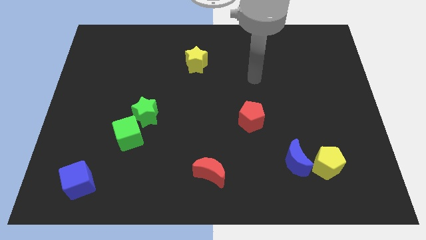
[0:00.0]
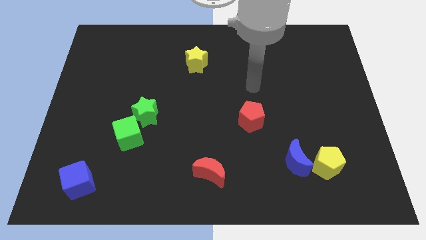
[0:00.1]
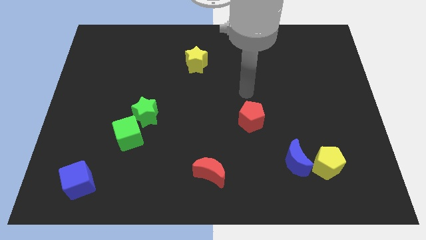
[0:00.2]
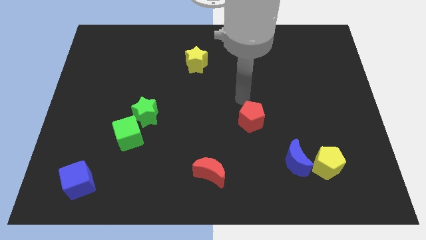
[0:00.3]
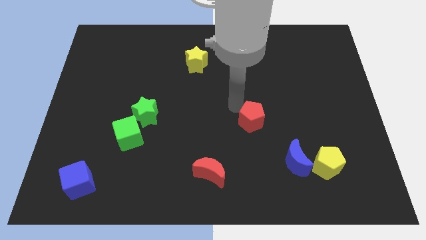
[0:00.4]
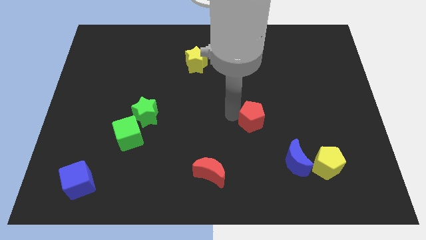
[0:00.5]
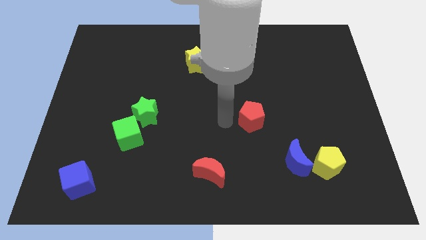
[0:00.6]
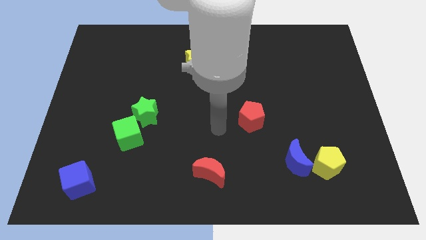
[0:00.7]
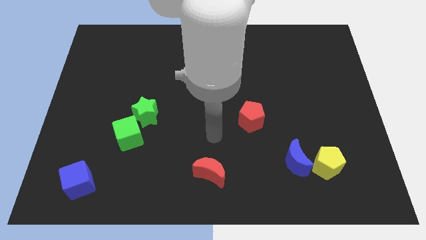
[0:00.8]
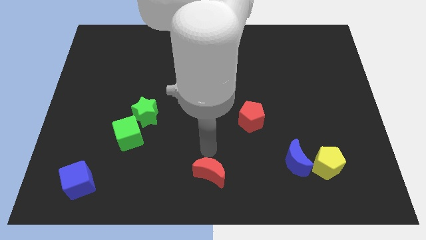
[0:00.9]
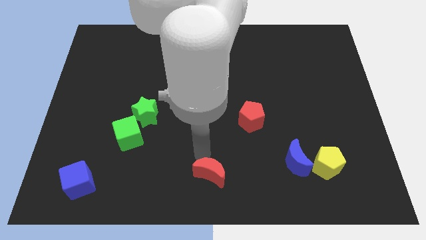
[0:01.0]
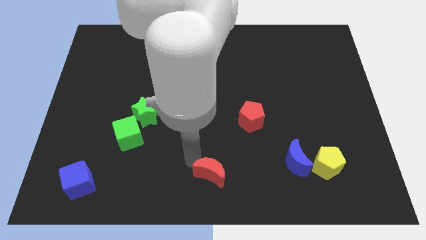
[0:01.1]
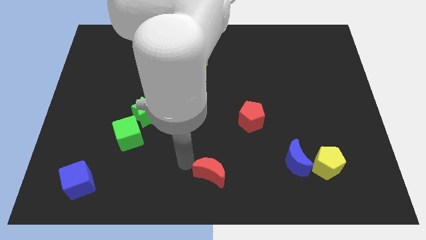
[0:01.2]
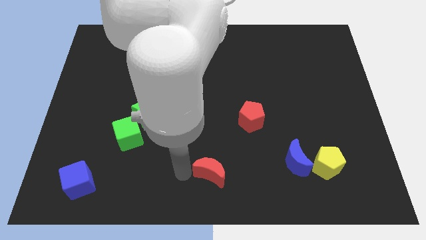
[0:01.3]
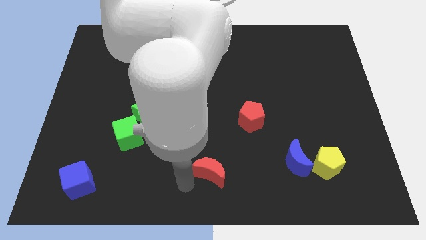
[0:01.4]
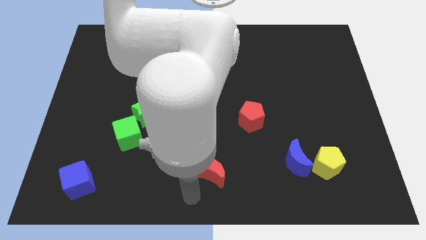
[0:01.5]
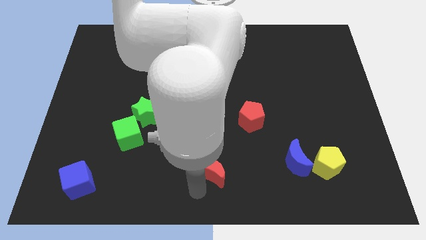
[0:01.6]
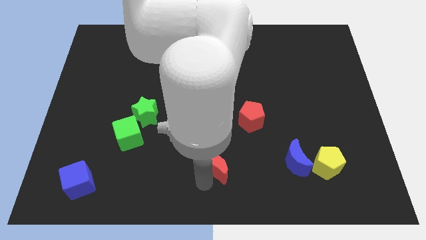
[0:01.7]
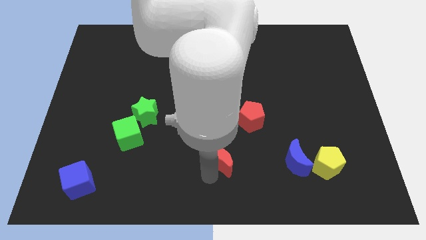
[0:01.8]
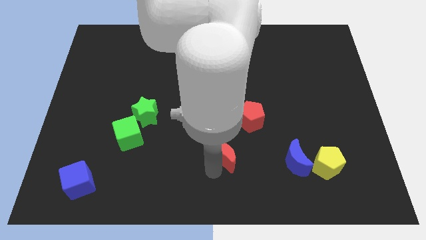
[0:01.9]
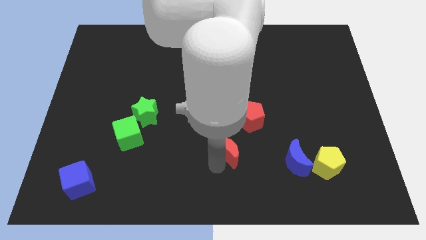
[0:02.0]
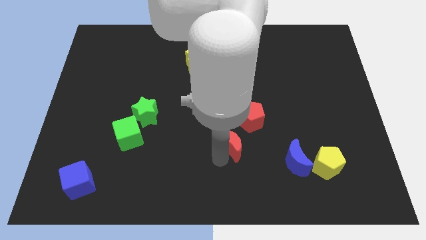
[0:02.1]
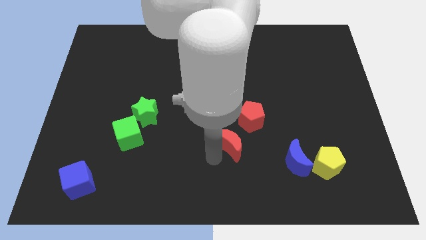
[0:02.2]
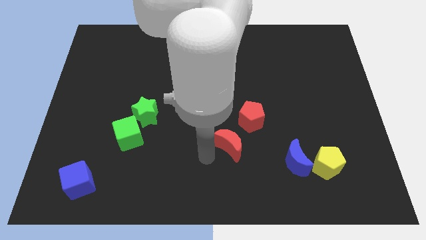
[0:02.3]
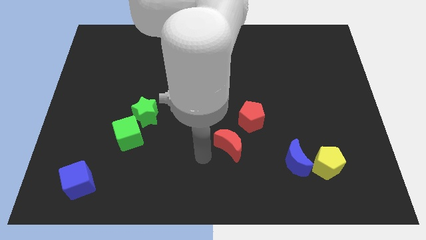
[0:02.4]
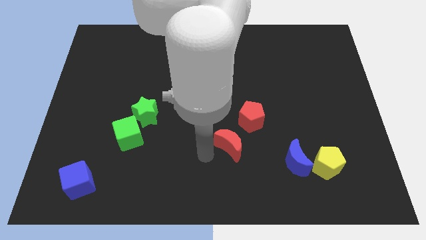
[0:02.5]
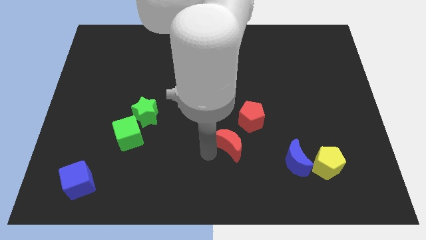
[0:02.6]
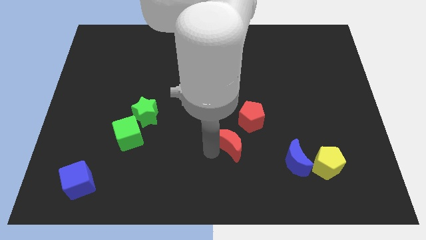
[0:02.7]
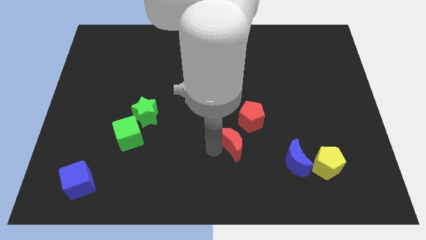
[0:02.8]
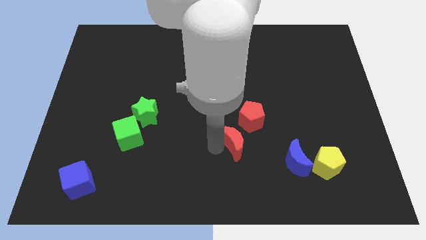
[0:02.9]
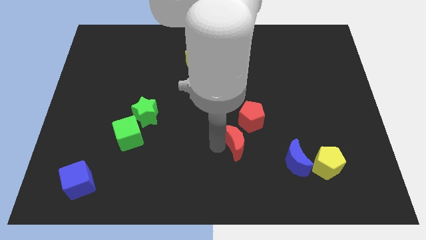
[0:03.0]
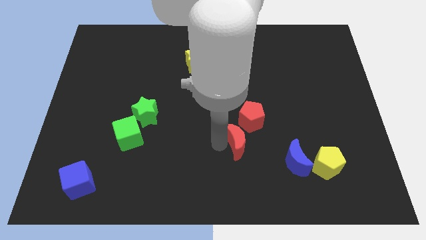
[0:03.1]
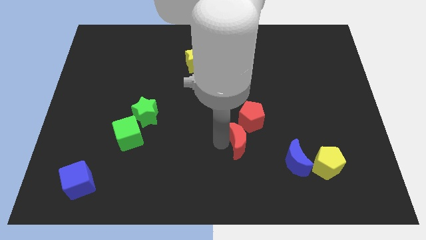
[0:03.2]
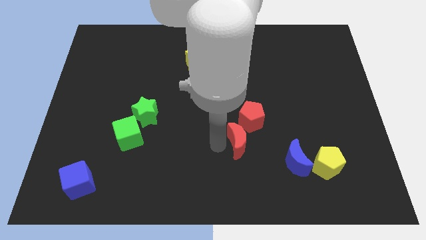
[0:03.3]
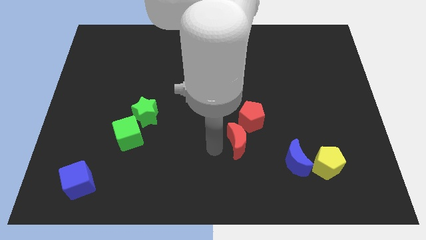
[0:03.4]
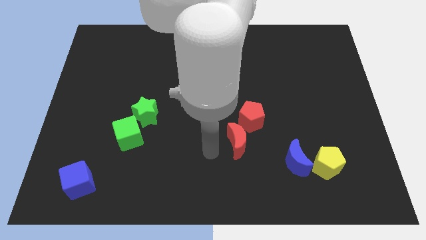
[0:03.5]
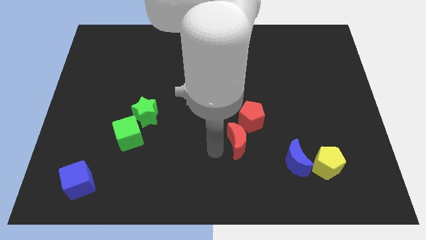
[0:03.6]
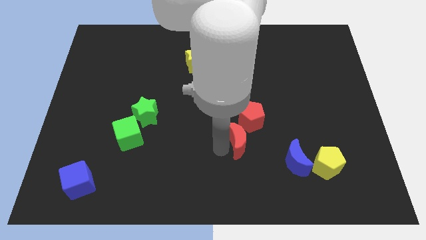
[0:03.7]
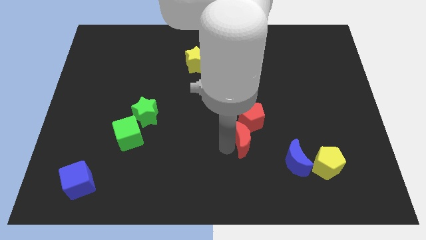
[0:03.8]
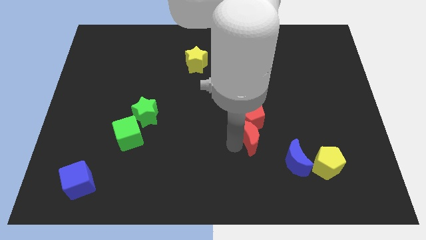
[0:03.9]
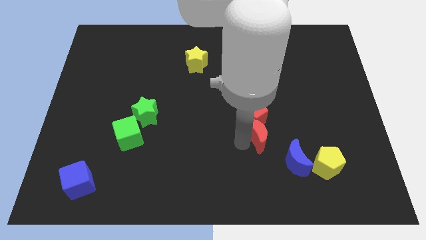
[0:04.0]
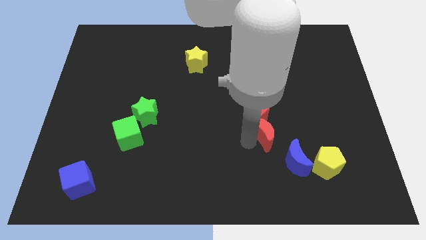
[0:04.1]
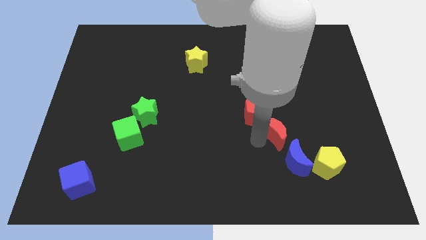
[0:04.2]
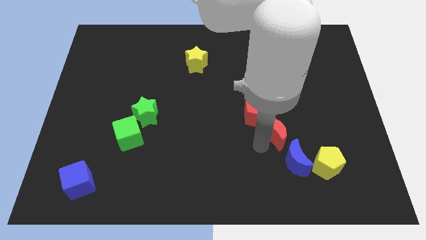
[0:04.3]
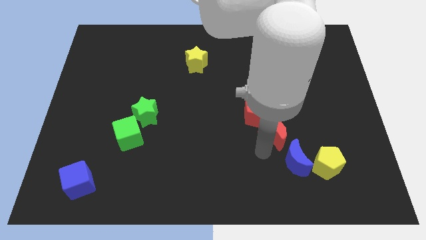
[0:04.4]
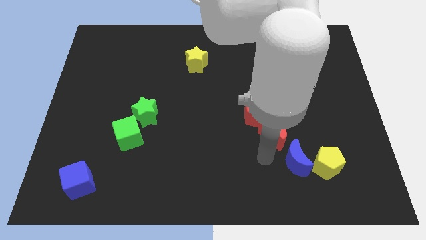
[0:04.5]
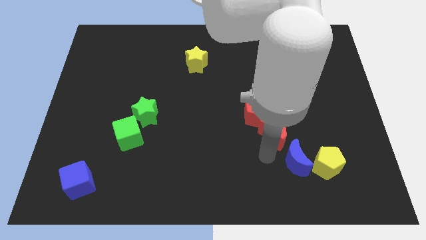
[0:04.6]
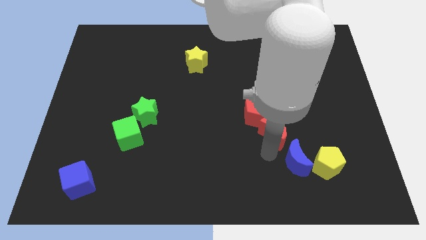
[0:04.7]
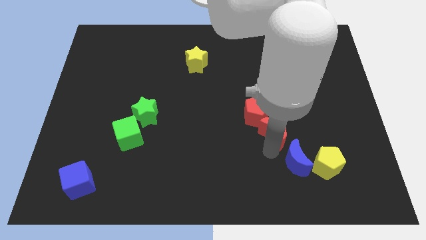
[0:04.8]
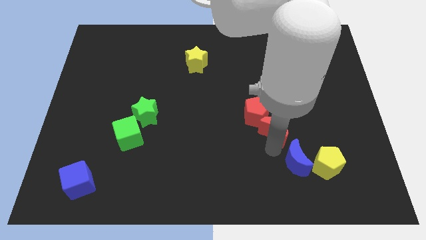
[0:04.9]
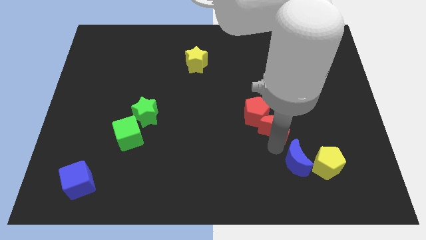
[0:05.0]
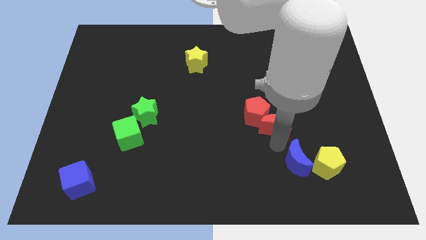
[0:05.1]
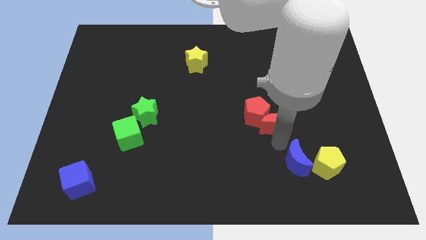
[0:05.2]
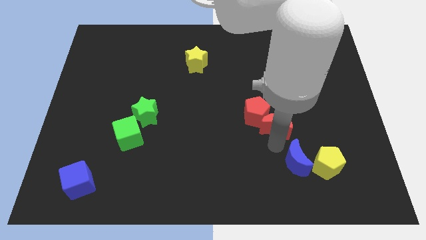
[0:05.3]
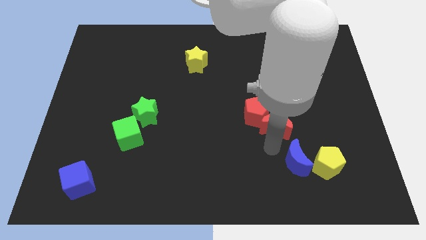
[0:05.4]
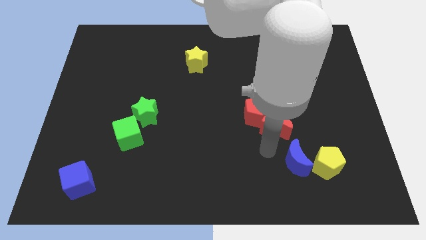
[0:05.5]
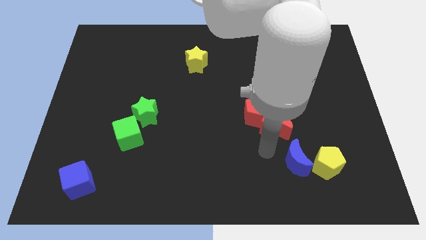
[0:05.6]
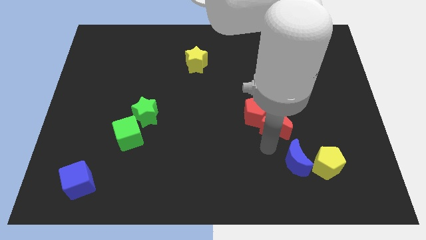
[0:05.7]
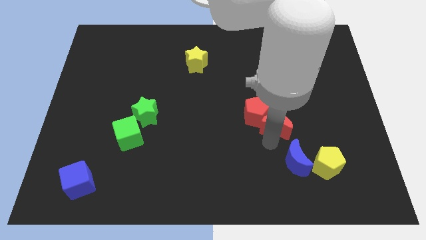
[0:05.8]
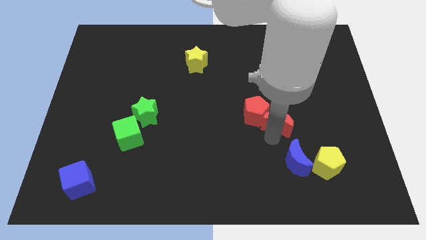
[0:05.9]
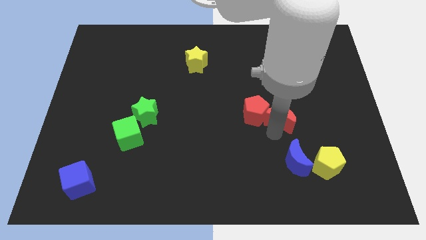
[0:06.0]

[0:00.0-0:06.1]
push the red moon up and then right

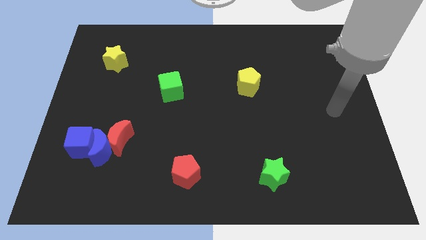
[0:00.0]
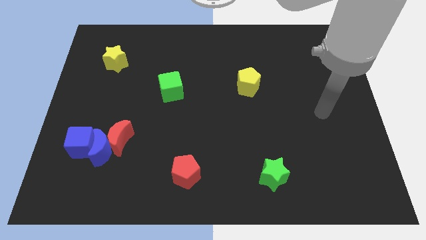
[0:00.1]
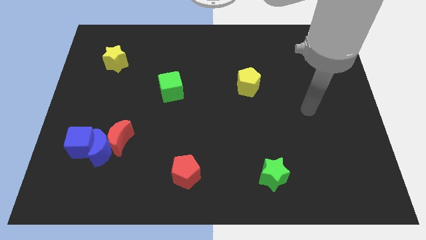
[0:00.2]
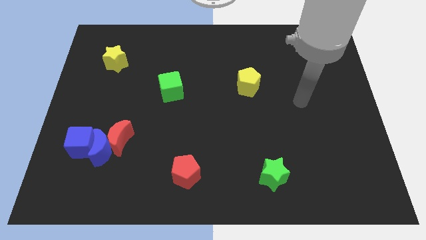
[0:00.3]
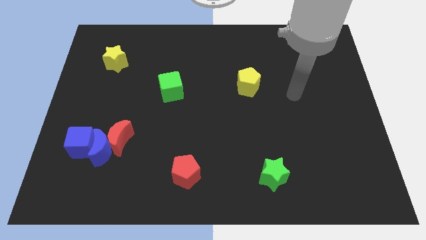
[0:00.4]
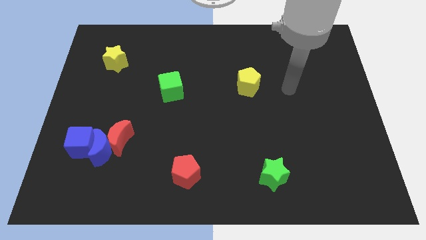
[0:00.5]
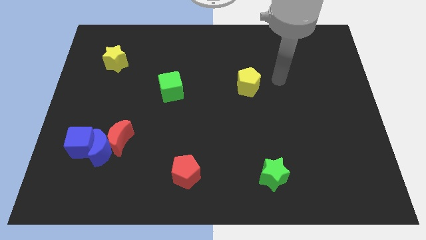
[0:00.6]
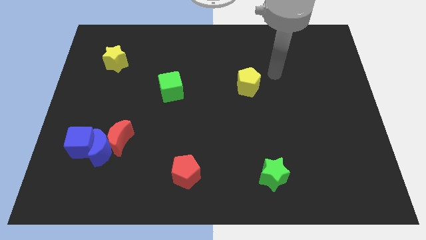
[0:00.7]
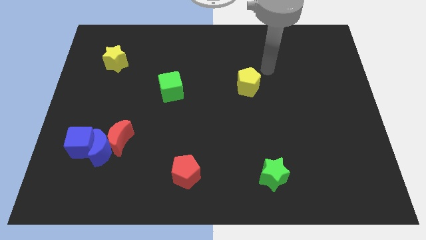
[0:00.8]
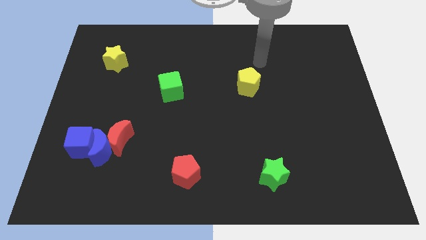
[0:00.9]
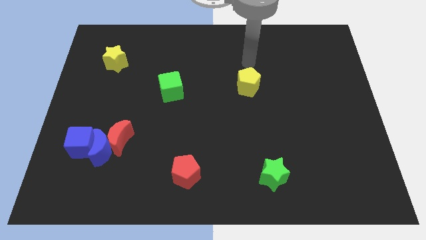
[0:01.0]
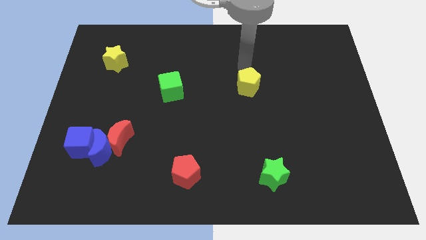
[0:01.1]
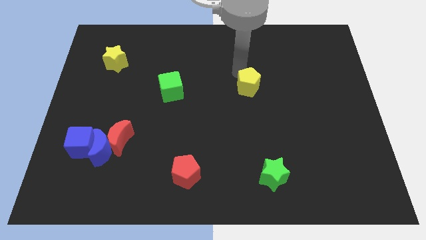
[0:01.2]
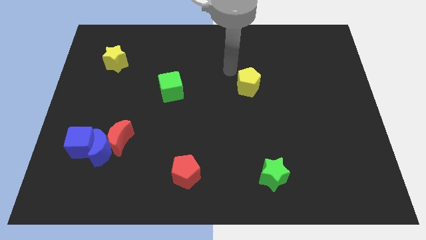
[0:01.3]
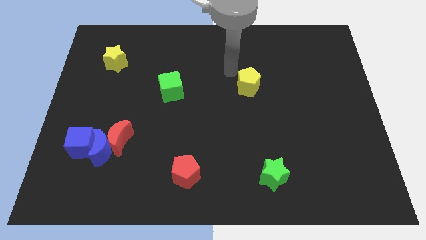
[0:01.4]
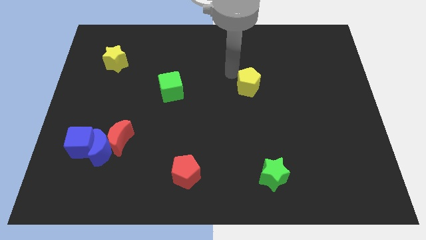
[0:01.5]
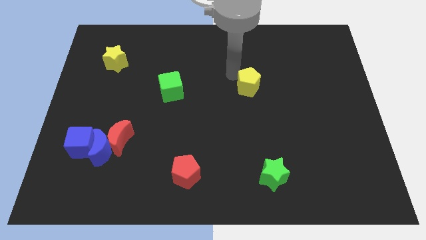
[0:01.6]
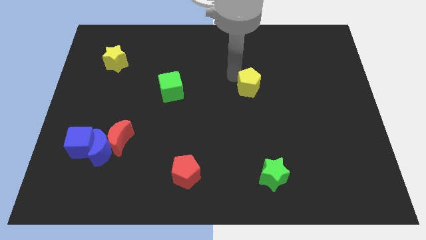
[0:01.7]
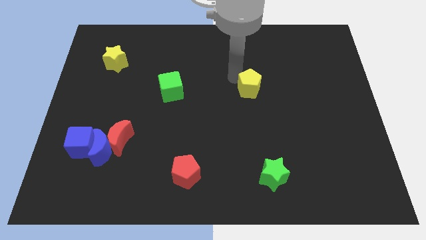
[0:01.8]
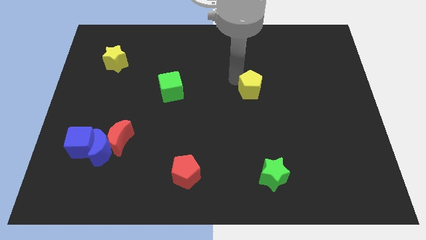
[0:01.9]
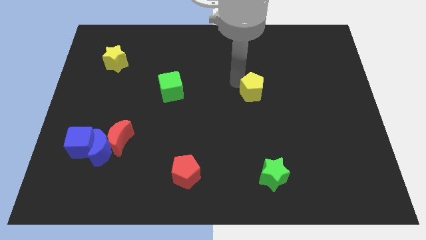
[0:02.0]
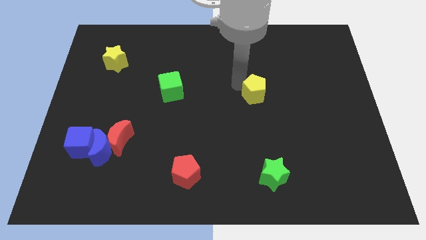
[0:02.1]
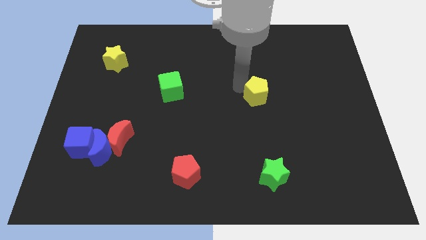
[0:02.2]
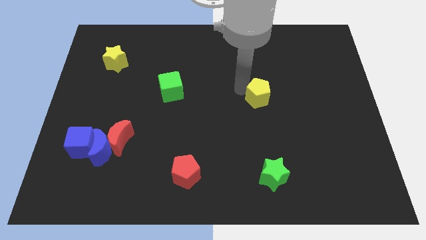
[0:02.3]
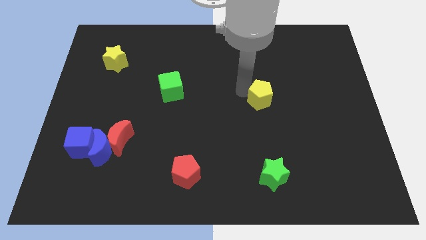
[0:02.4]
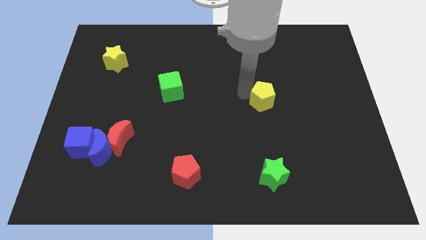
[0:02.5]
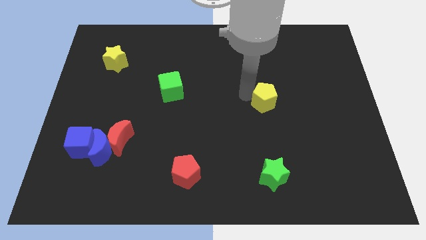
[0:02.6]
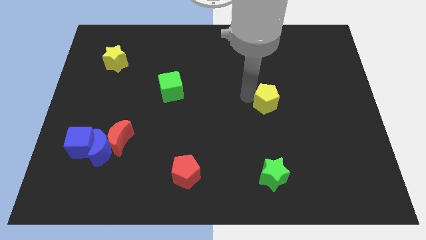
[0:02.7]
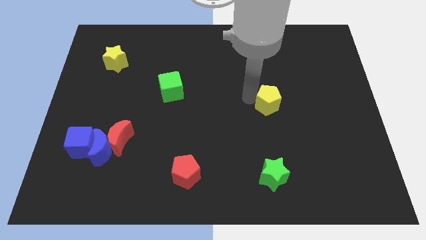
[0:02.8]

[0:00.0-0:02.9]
slightly slide the yellow pentagon downwards and to the right diagonally
